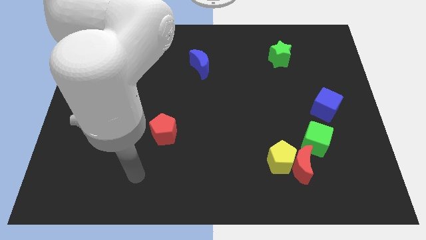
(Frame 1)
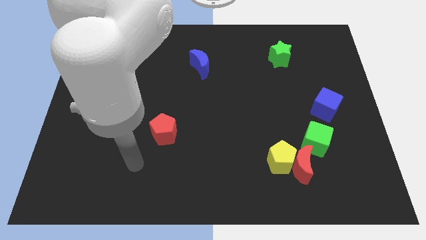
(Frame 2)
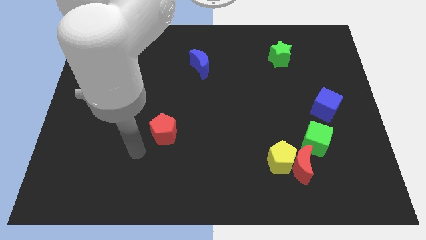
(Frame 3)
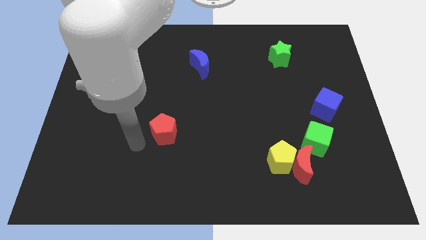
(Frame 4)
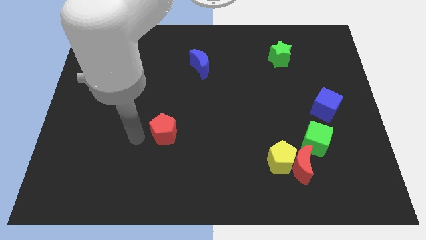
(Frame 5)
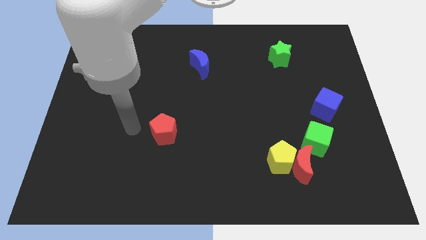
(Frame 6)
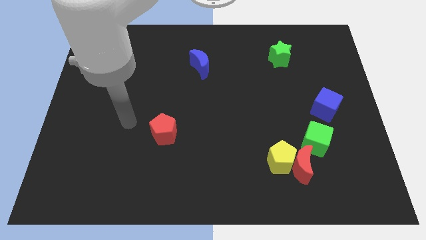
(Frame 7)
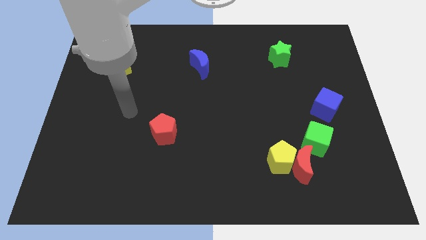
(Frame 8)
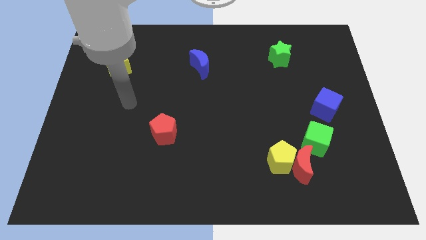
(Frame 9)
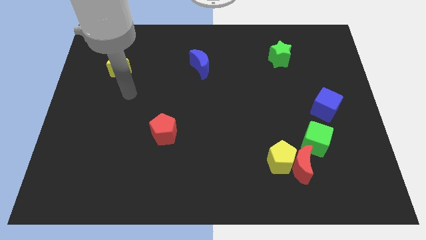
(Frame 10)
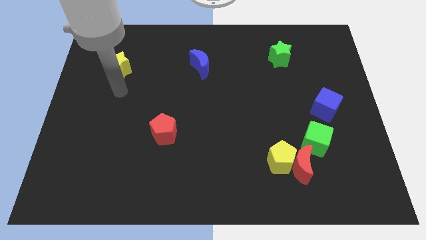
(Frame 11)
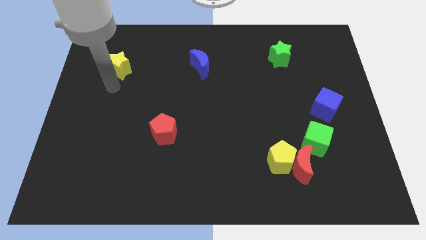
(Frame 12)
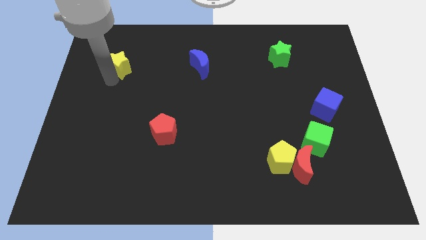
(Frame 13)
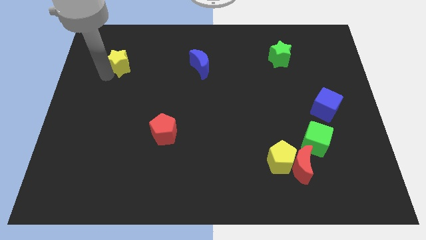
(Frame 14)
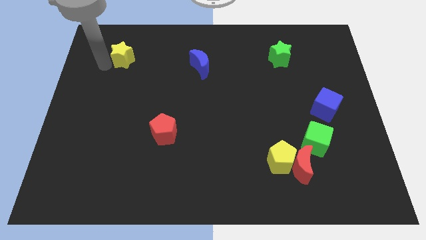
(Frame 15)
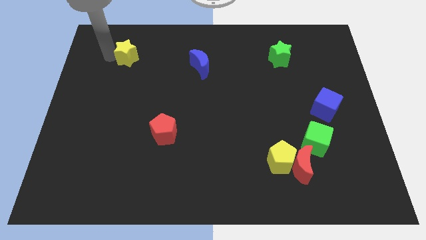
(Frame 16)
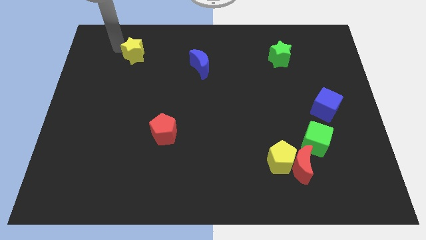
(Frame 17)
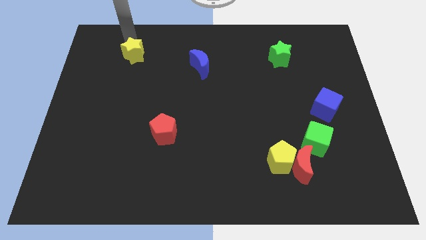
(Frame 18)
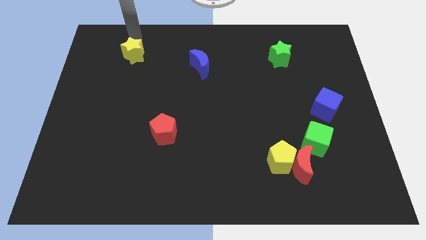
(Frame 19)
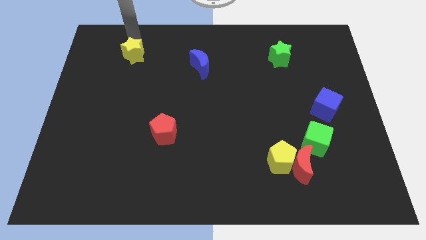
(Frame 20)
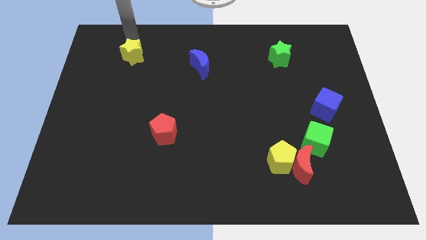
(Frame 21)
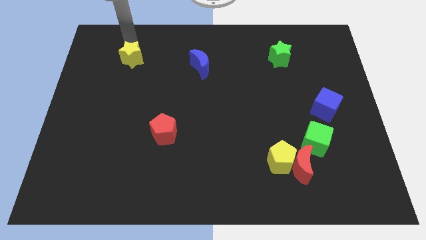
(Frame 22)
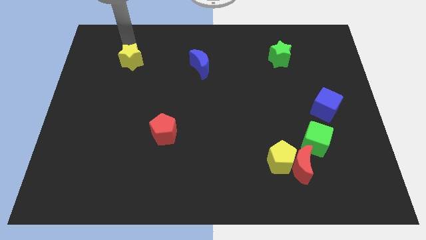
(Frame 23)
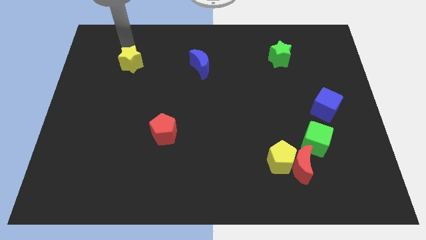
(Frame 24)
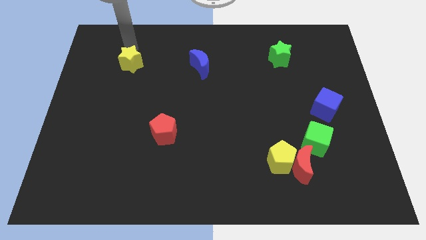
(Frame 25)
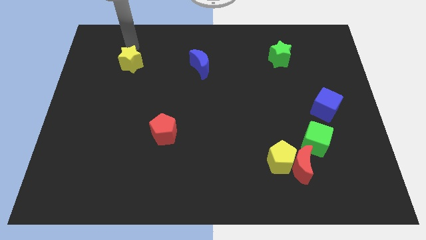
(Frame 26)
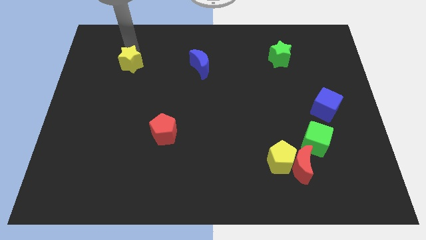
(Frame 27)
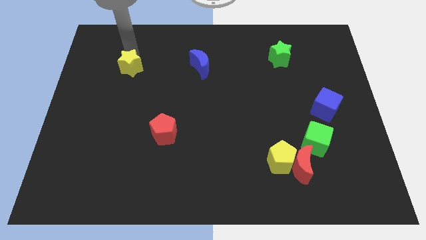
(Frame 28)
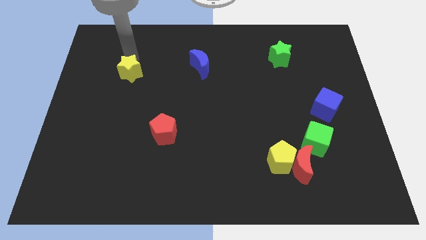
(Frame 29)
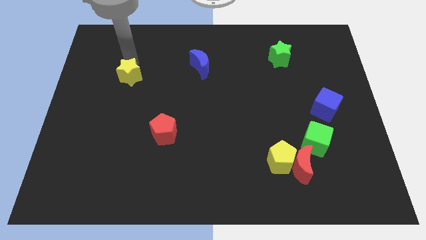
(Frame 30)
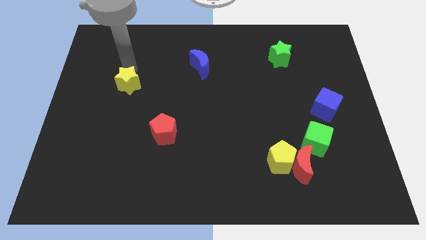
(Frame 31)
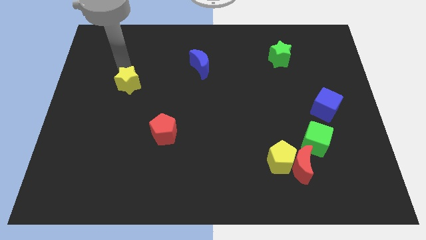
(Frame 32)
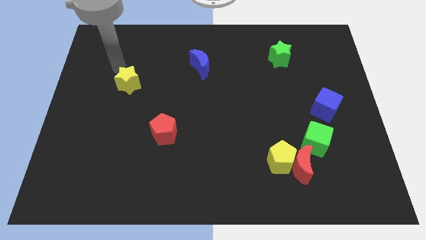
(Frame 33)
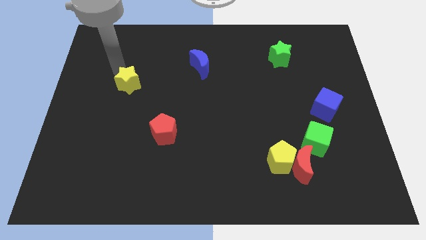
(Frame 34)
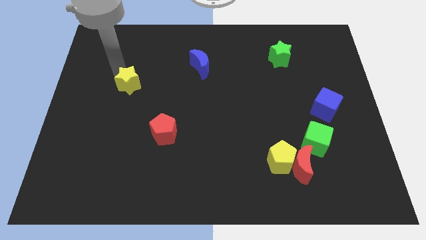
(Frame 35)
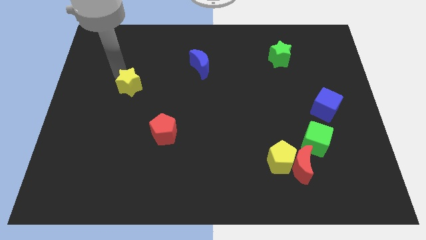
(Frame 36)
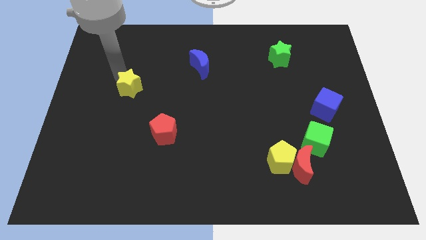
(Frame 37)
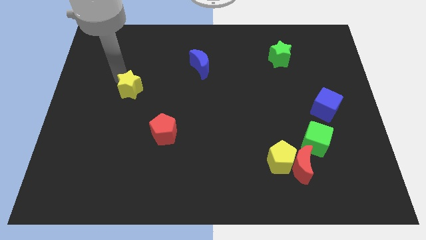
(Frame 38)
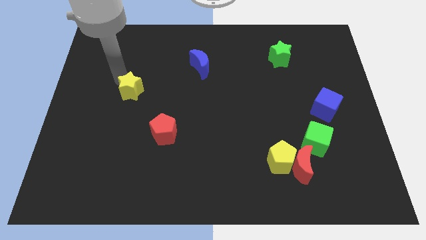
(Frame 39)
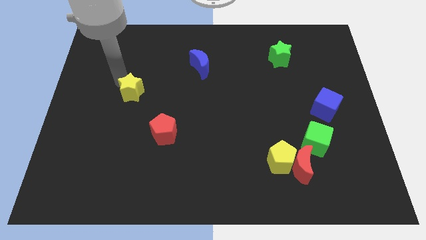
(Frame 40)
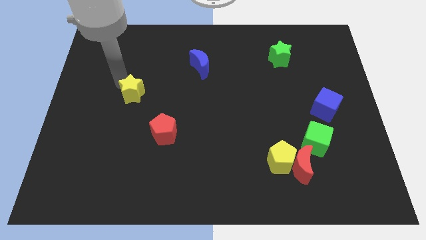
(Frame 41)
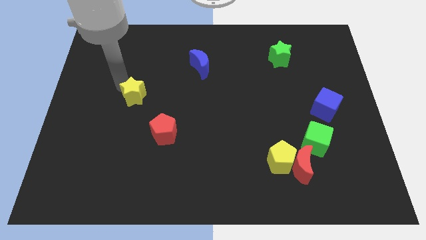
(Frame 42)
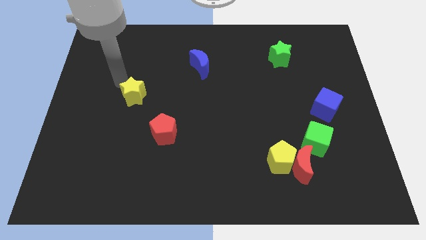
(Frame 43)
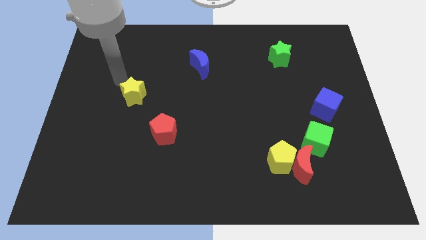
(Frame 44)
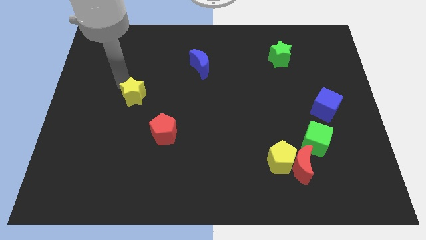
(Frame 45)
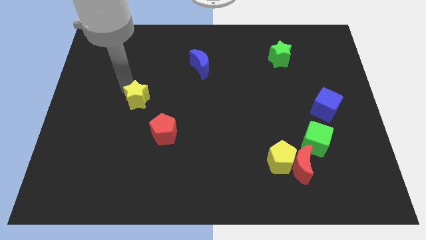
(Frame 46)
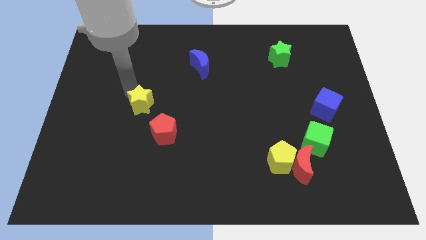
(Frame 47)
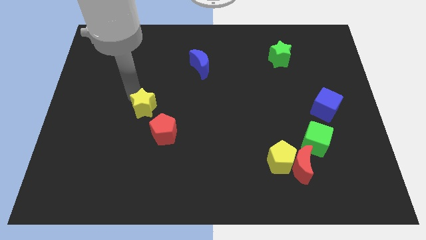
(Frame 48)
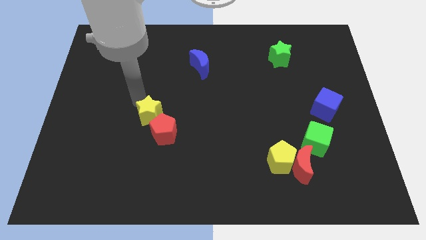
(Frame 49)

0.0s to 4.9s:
put the yellow star towards the red pentagon

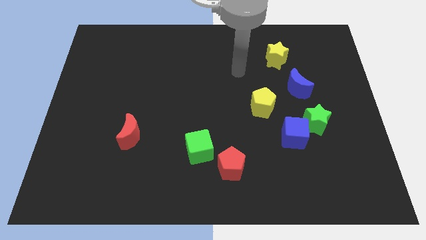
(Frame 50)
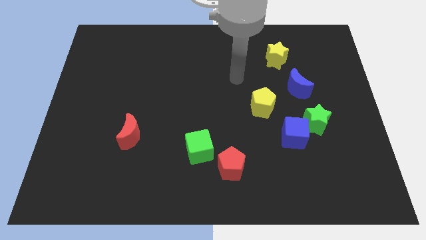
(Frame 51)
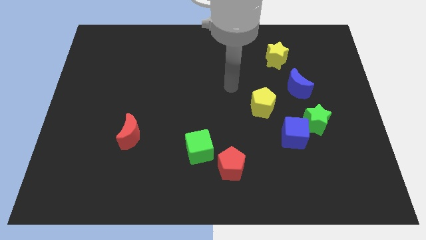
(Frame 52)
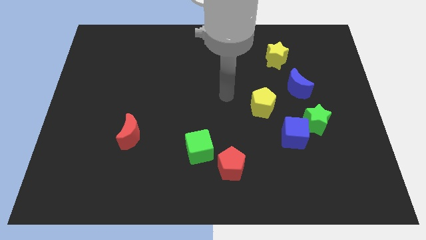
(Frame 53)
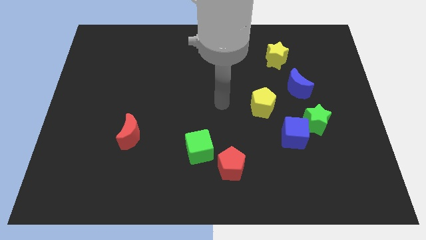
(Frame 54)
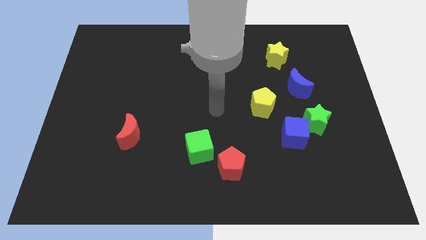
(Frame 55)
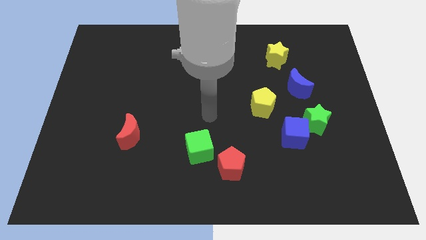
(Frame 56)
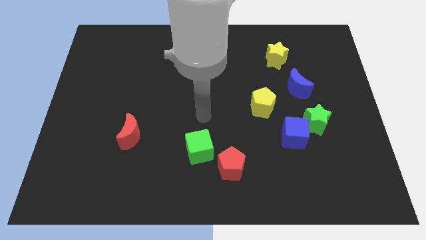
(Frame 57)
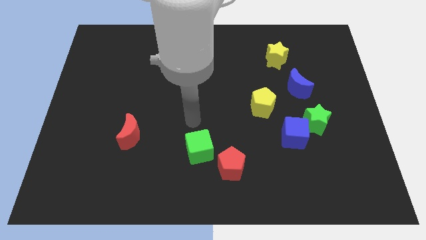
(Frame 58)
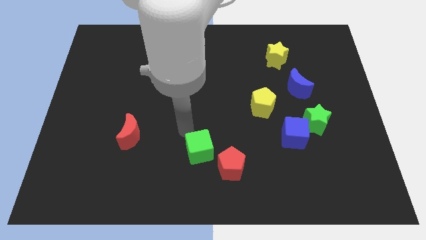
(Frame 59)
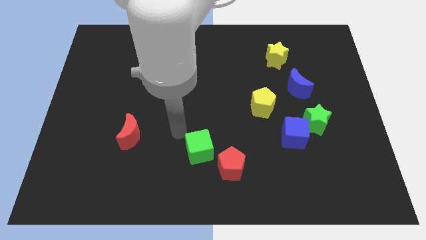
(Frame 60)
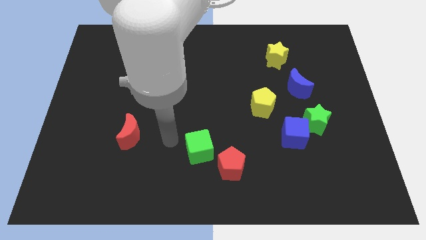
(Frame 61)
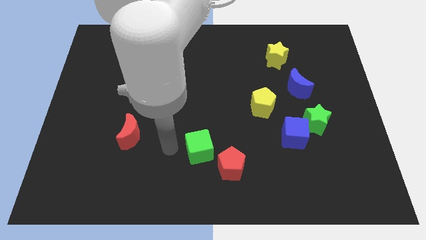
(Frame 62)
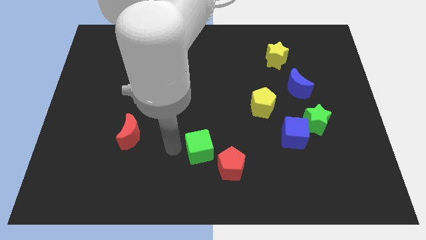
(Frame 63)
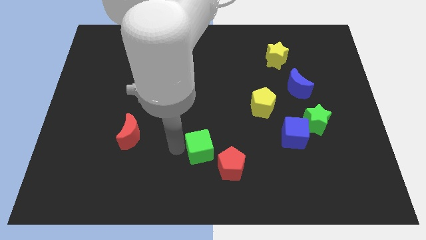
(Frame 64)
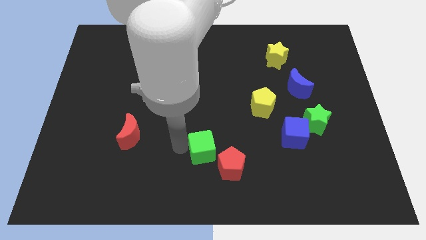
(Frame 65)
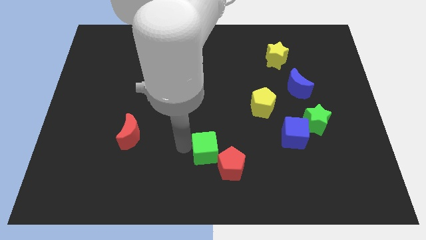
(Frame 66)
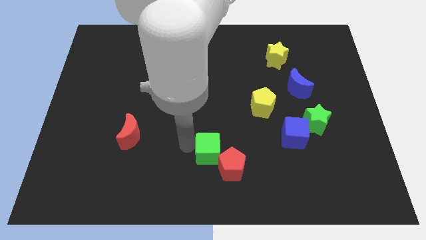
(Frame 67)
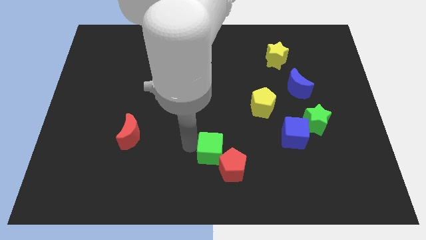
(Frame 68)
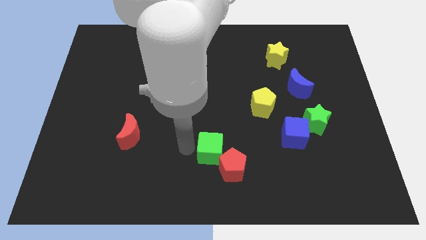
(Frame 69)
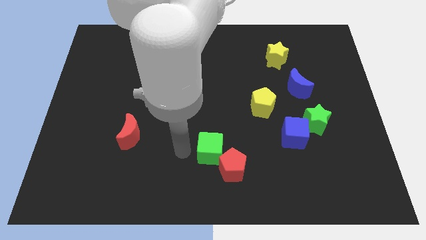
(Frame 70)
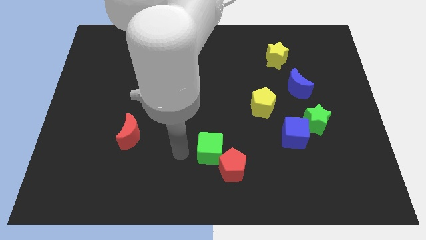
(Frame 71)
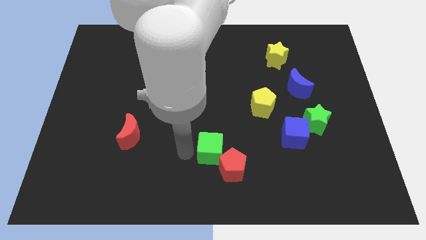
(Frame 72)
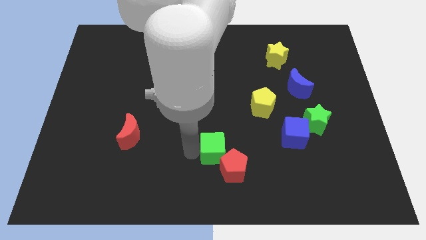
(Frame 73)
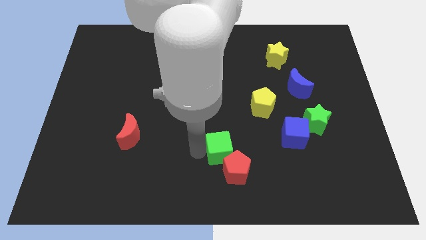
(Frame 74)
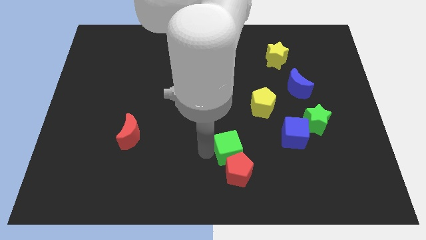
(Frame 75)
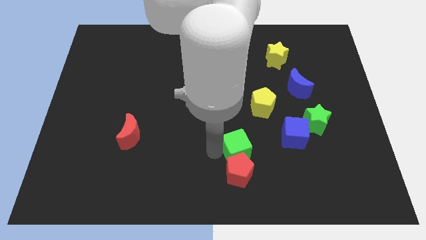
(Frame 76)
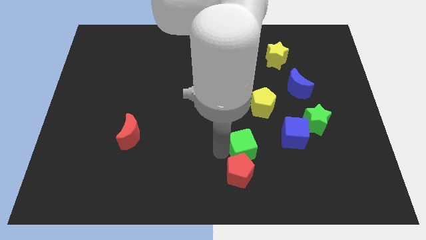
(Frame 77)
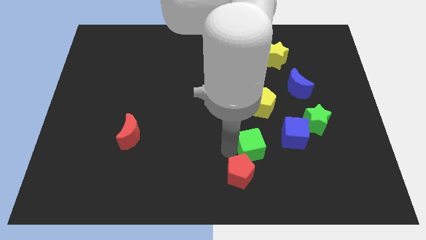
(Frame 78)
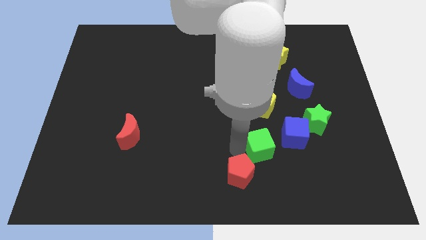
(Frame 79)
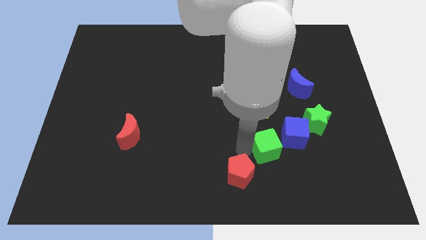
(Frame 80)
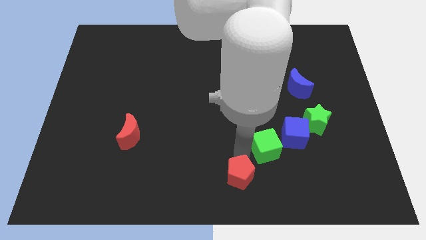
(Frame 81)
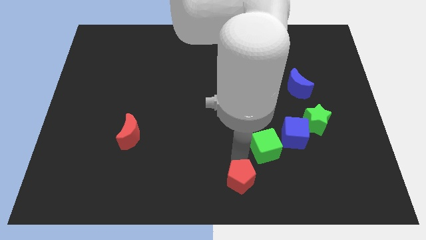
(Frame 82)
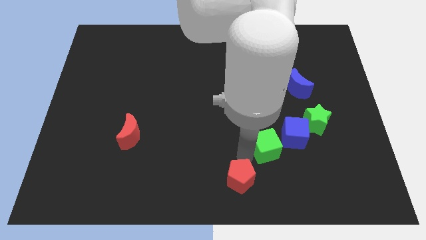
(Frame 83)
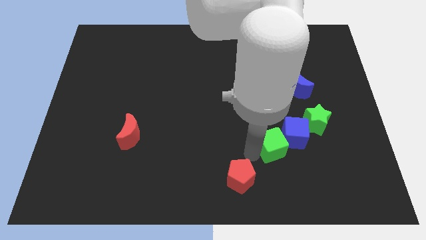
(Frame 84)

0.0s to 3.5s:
slide the green cube to the blue cube
